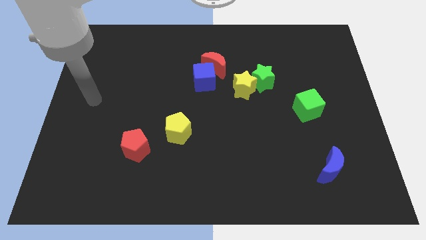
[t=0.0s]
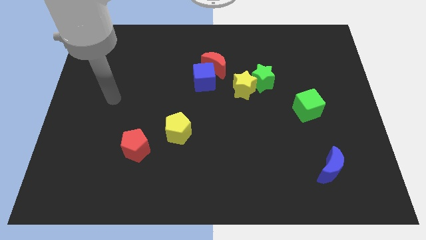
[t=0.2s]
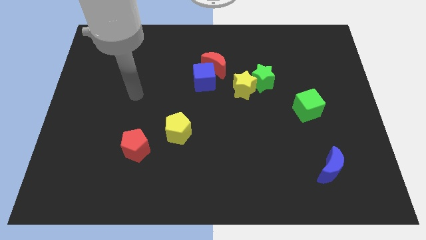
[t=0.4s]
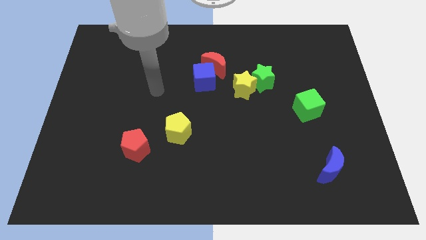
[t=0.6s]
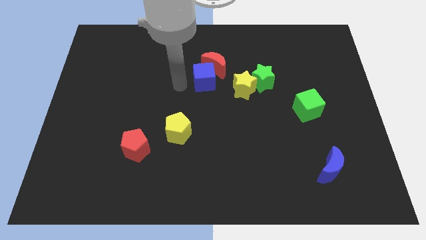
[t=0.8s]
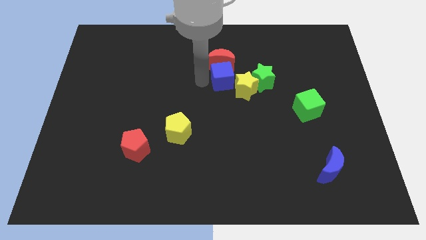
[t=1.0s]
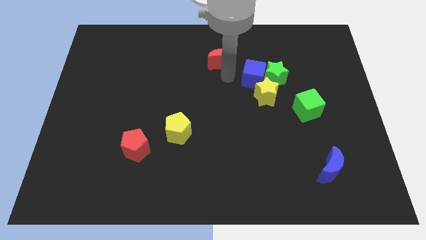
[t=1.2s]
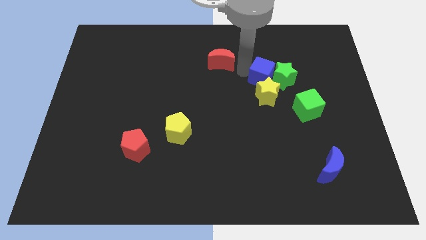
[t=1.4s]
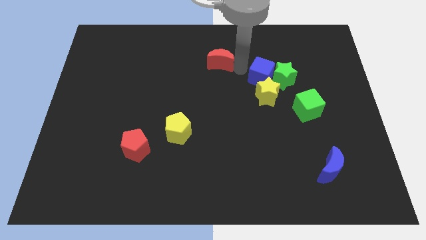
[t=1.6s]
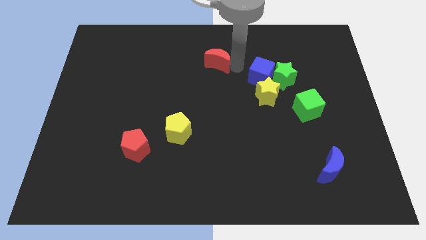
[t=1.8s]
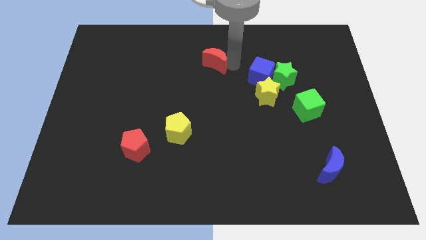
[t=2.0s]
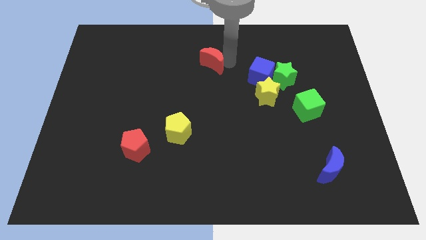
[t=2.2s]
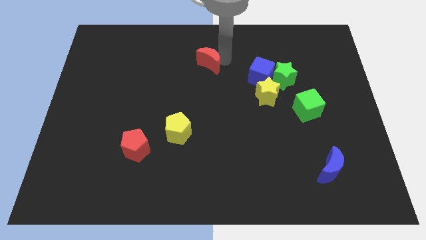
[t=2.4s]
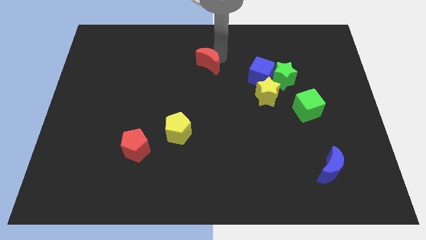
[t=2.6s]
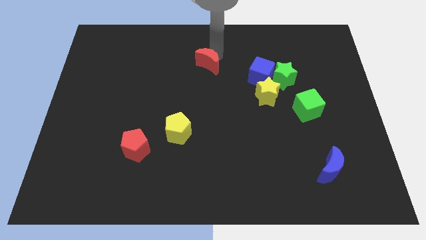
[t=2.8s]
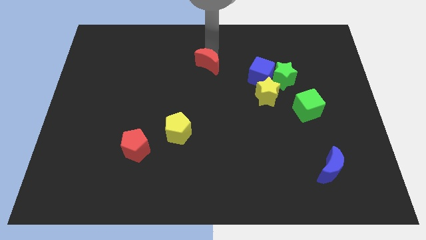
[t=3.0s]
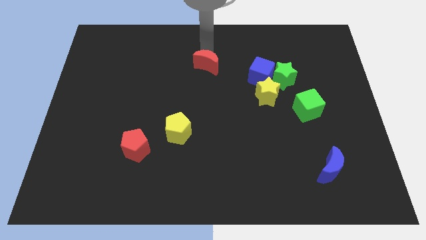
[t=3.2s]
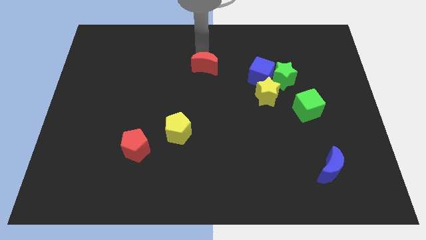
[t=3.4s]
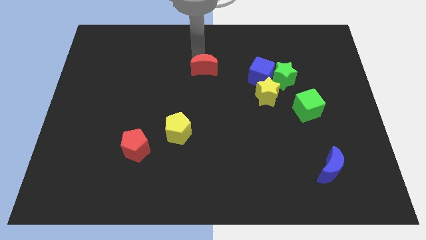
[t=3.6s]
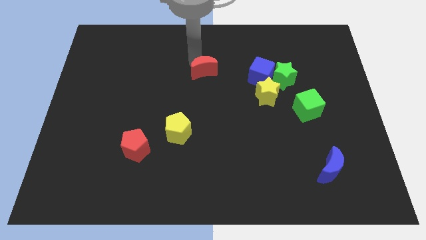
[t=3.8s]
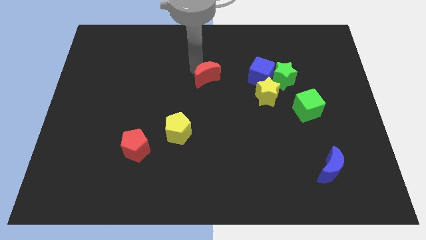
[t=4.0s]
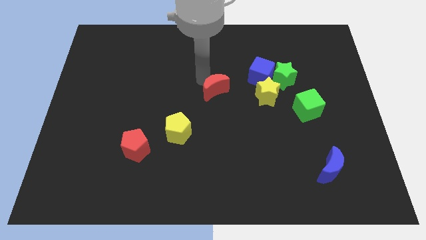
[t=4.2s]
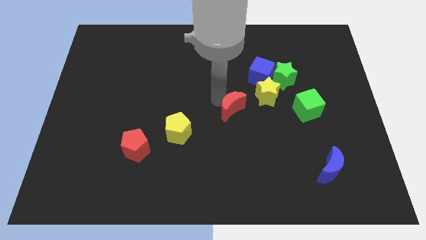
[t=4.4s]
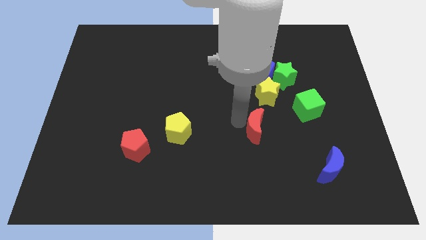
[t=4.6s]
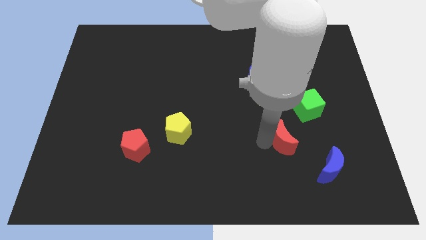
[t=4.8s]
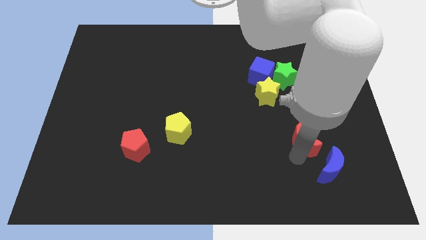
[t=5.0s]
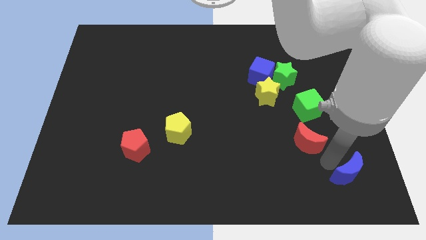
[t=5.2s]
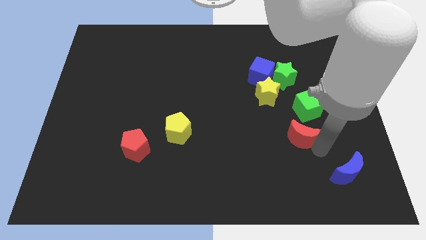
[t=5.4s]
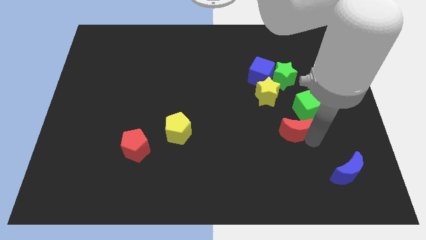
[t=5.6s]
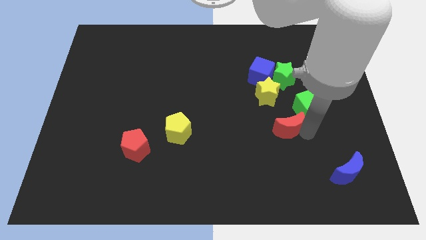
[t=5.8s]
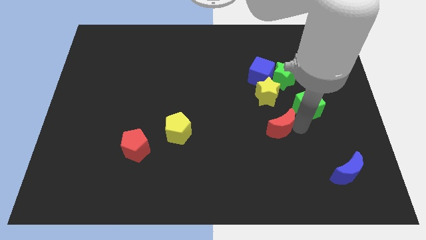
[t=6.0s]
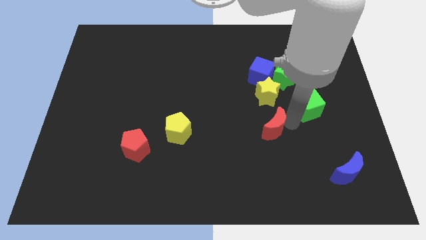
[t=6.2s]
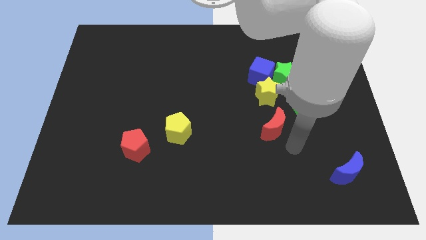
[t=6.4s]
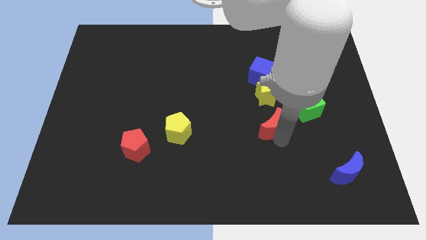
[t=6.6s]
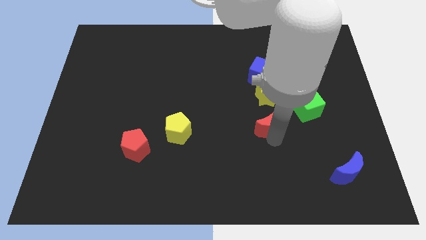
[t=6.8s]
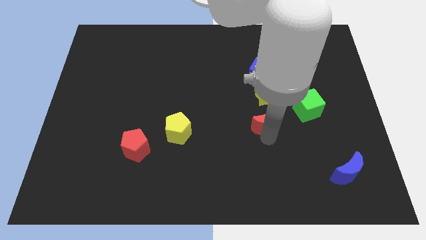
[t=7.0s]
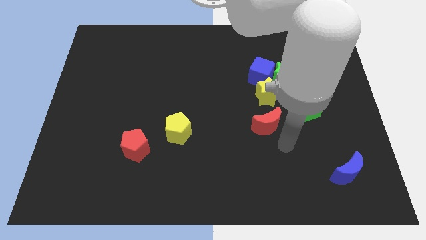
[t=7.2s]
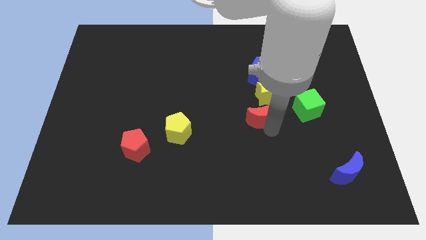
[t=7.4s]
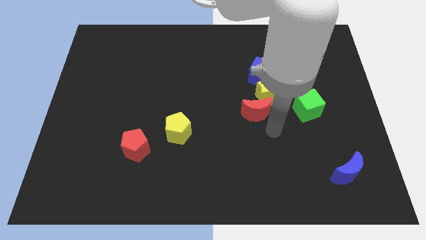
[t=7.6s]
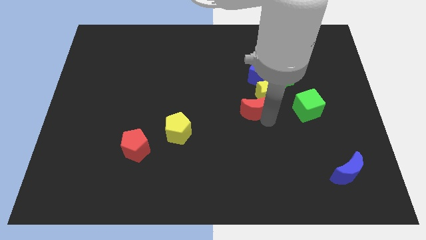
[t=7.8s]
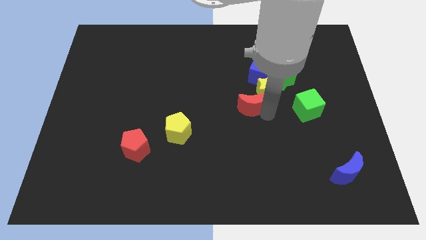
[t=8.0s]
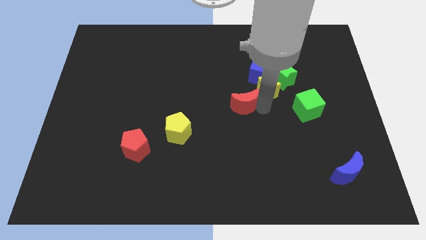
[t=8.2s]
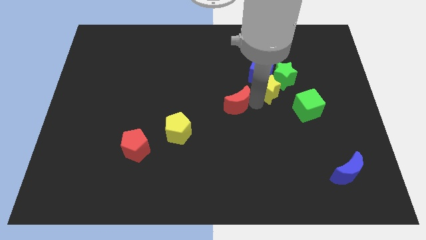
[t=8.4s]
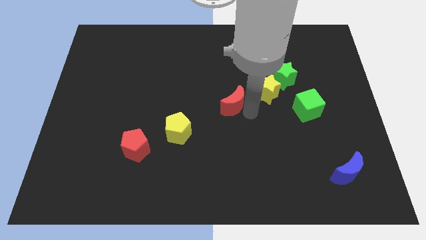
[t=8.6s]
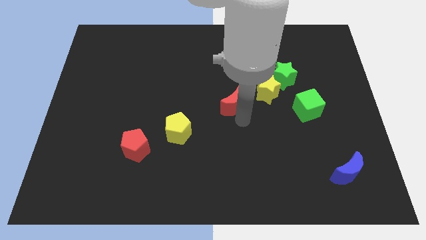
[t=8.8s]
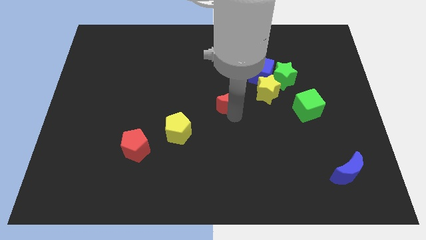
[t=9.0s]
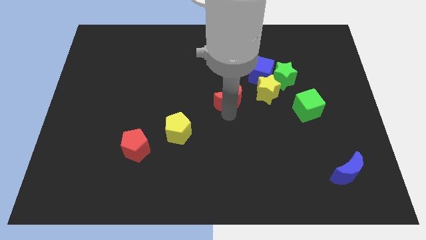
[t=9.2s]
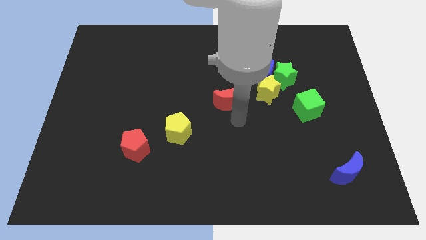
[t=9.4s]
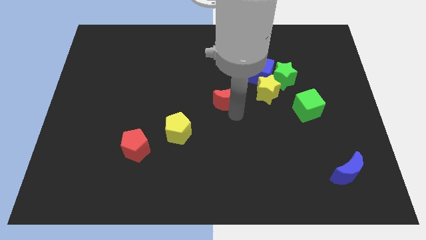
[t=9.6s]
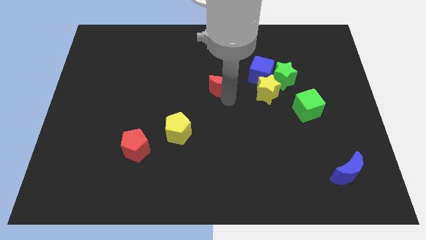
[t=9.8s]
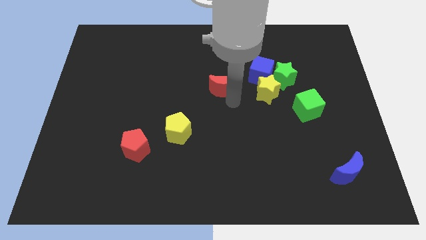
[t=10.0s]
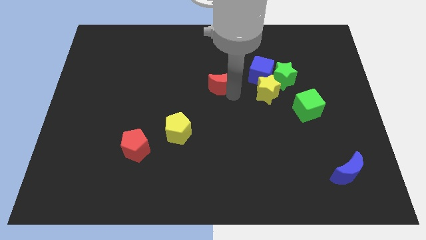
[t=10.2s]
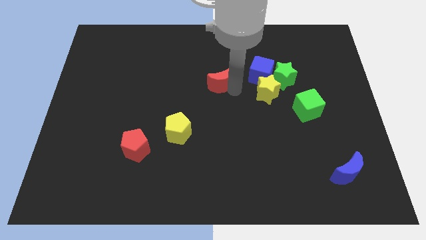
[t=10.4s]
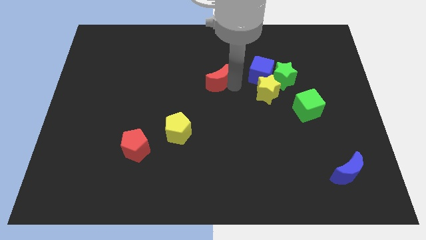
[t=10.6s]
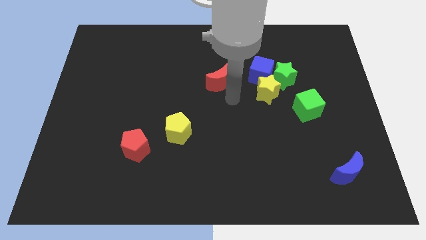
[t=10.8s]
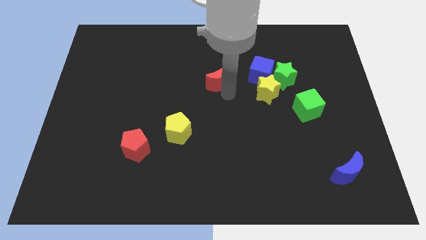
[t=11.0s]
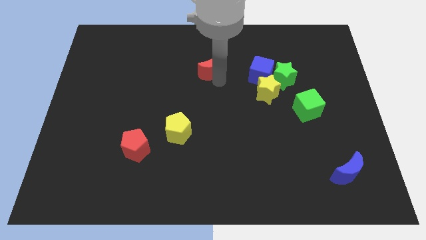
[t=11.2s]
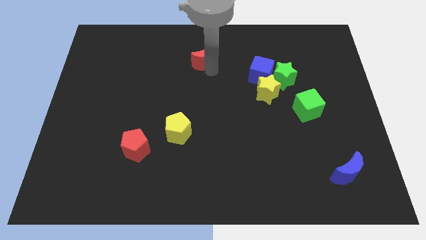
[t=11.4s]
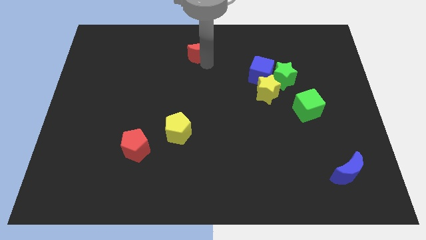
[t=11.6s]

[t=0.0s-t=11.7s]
put the red moon to the towards your base

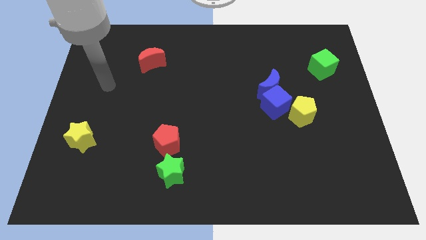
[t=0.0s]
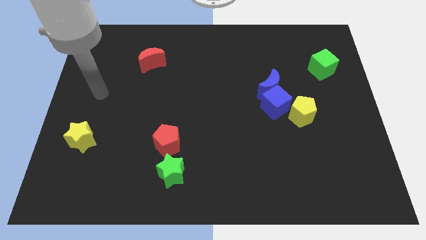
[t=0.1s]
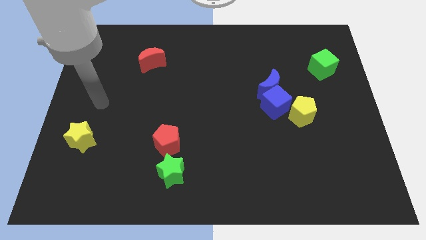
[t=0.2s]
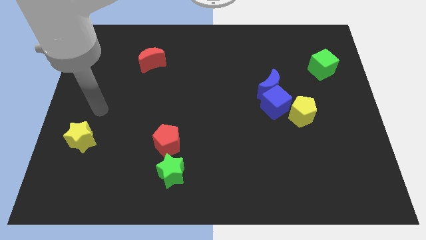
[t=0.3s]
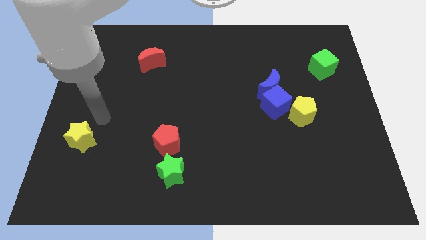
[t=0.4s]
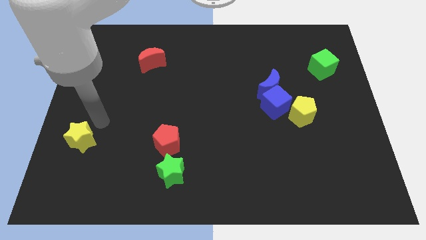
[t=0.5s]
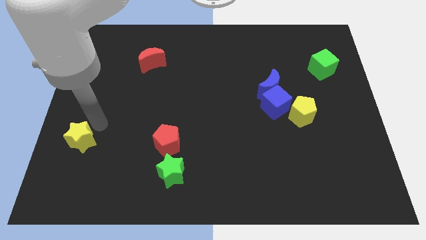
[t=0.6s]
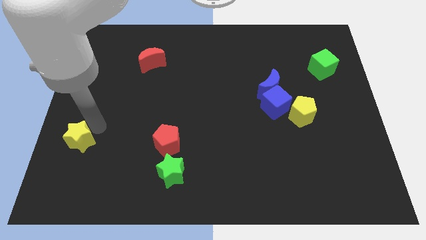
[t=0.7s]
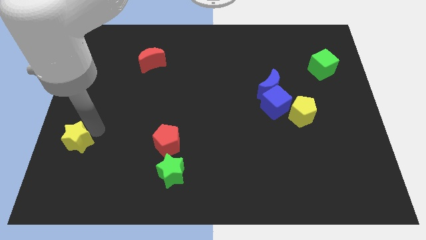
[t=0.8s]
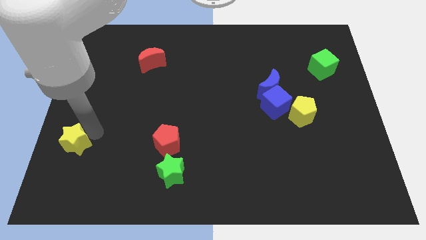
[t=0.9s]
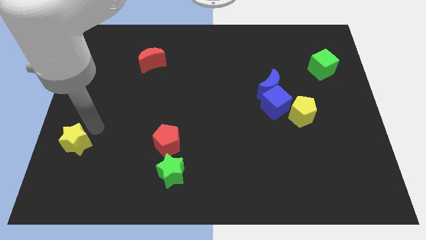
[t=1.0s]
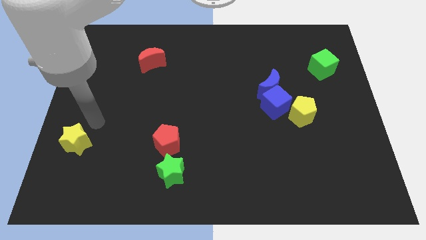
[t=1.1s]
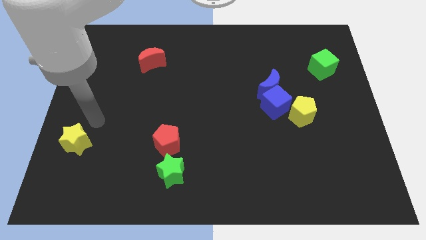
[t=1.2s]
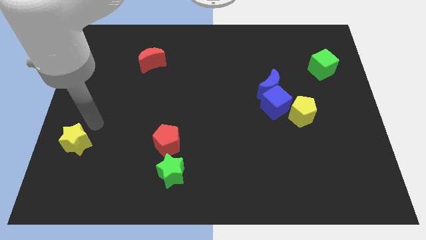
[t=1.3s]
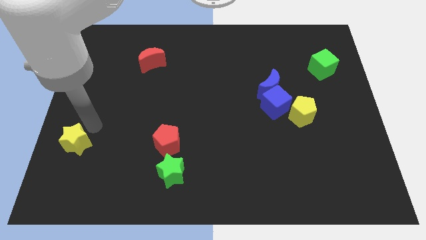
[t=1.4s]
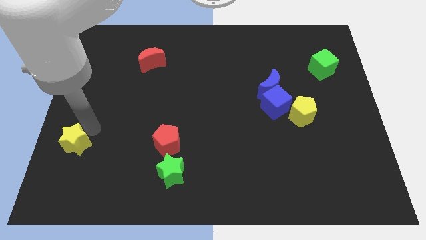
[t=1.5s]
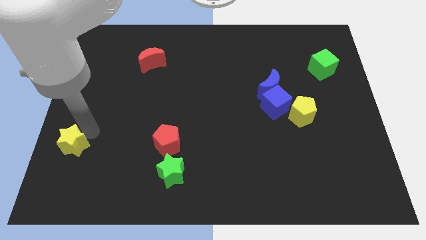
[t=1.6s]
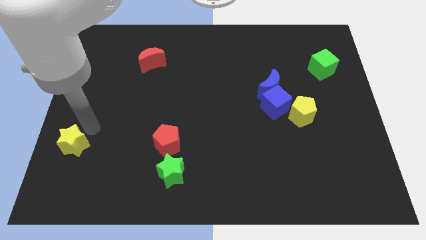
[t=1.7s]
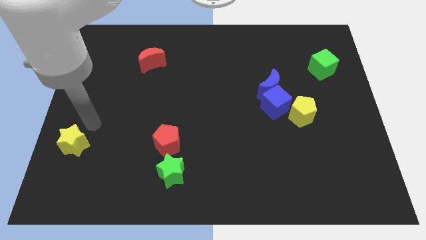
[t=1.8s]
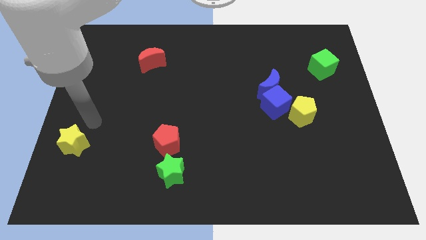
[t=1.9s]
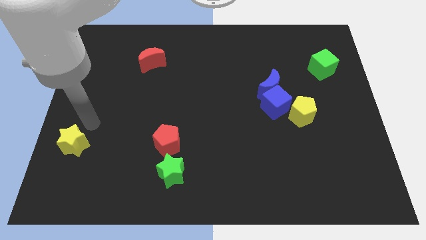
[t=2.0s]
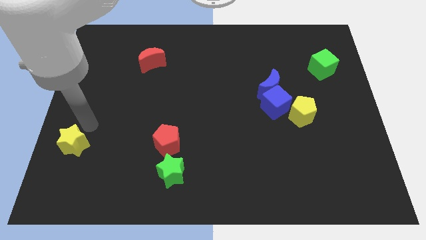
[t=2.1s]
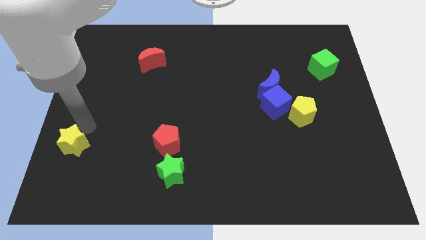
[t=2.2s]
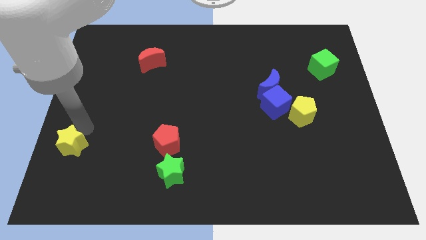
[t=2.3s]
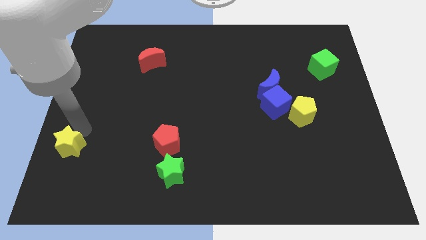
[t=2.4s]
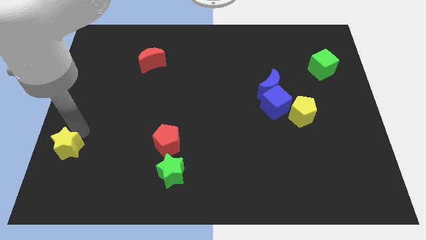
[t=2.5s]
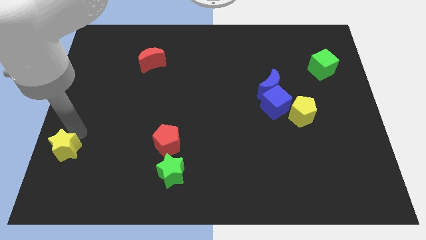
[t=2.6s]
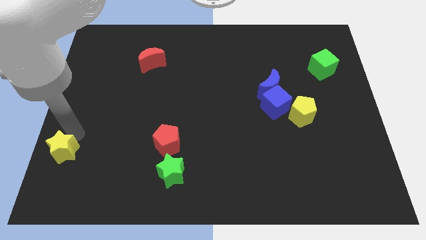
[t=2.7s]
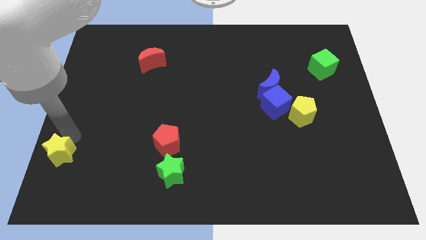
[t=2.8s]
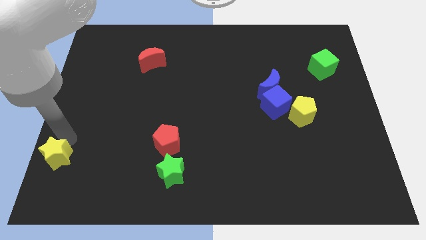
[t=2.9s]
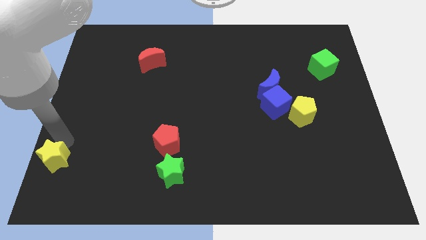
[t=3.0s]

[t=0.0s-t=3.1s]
put the yellow star to the bottom left
